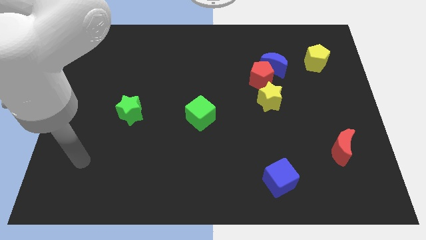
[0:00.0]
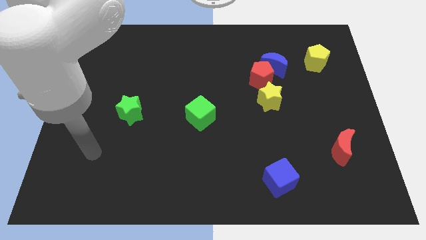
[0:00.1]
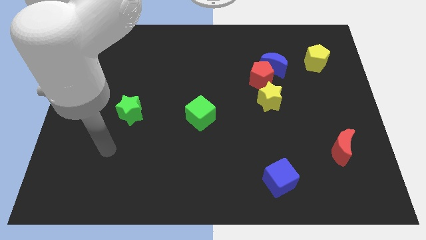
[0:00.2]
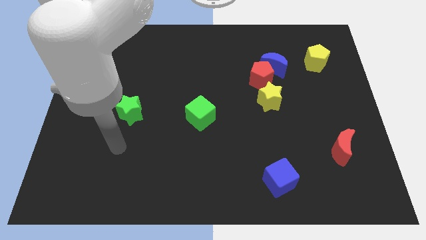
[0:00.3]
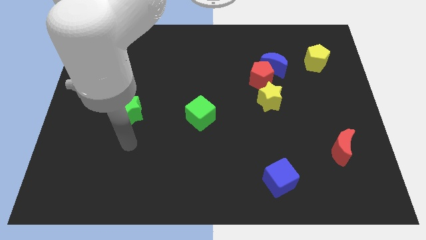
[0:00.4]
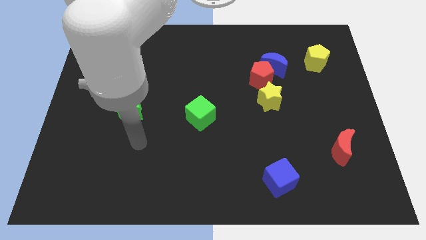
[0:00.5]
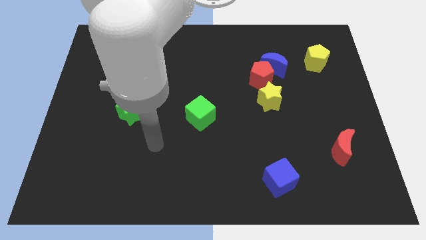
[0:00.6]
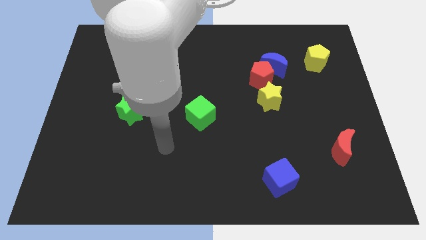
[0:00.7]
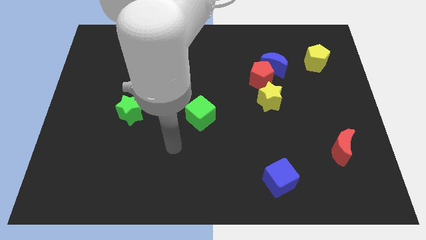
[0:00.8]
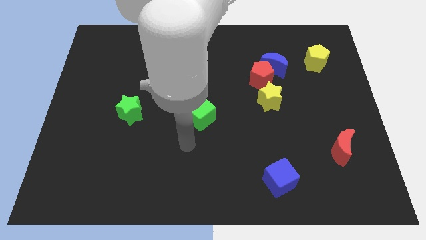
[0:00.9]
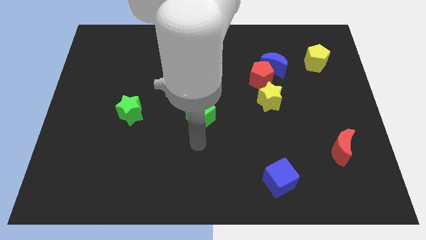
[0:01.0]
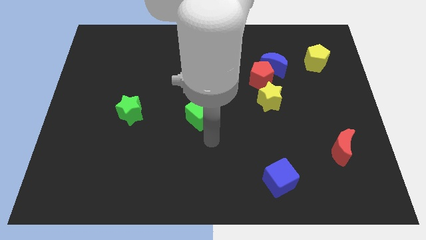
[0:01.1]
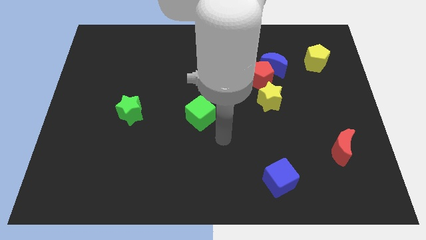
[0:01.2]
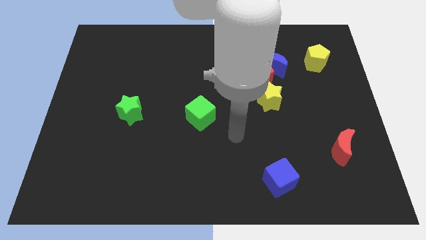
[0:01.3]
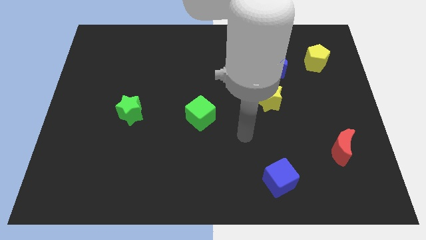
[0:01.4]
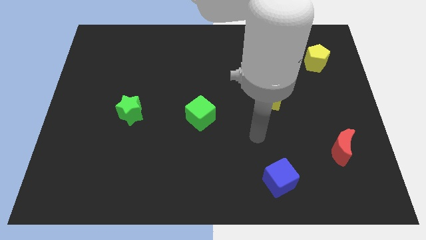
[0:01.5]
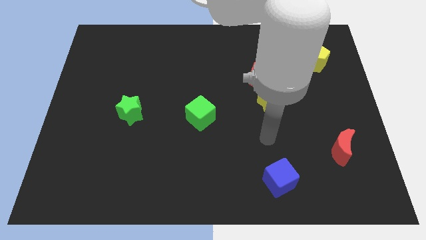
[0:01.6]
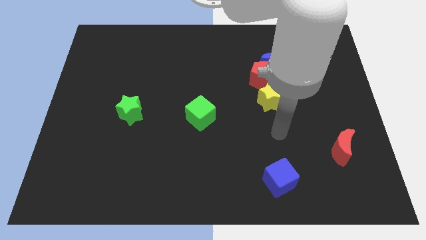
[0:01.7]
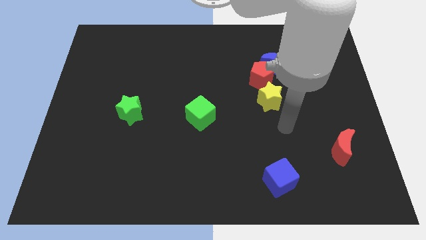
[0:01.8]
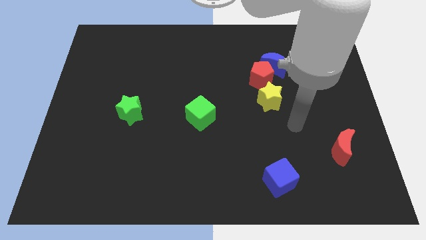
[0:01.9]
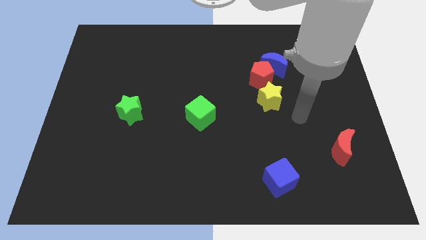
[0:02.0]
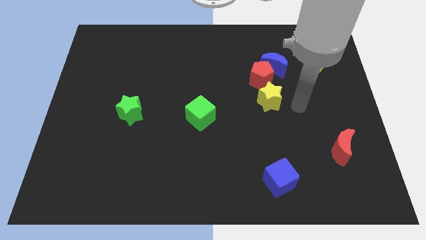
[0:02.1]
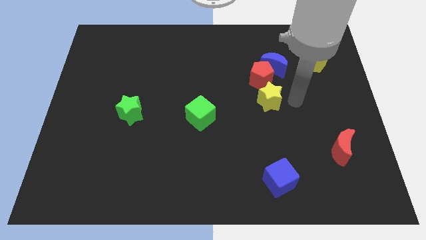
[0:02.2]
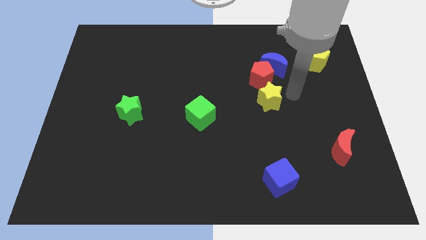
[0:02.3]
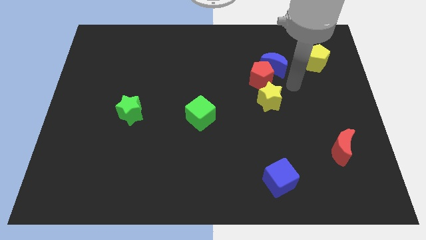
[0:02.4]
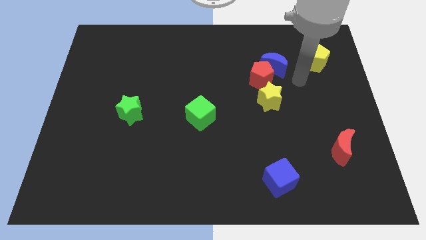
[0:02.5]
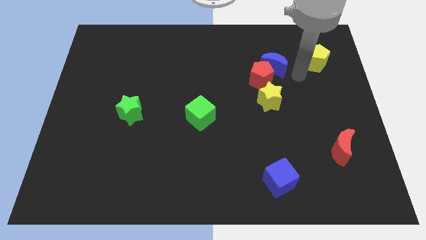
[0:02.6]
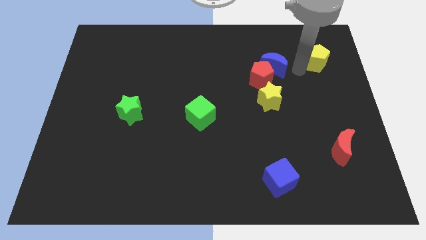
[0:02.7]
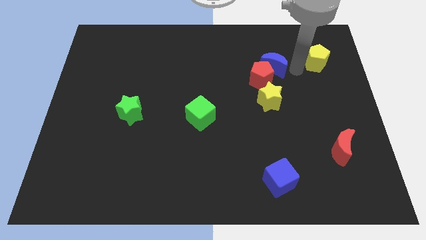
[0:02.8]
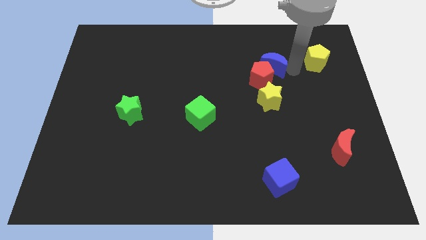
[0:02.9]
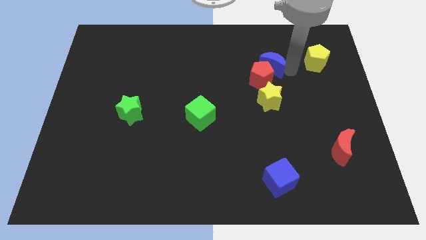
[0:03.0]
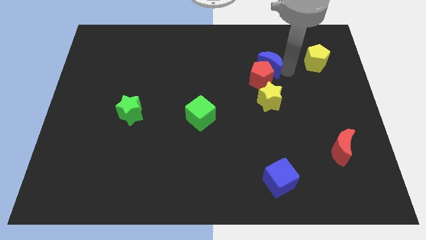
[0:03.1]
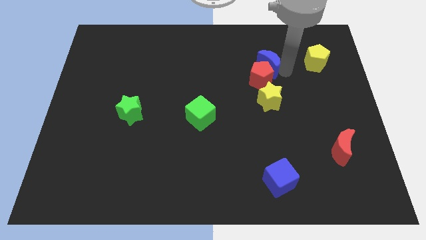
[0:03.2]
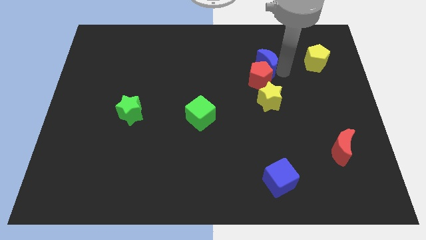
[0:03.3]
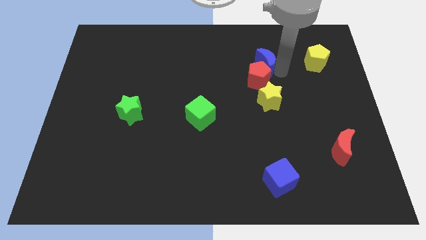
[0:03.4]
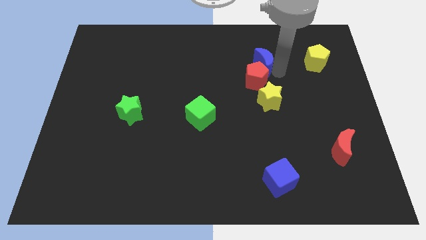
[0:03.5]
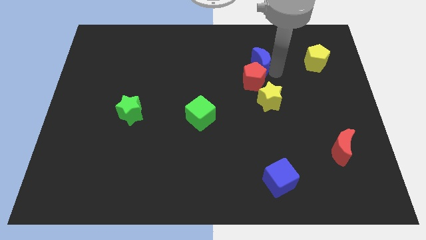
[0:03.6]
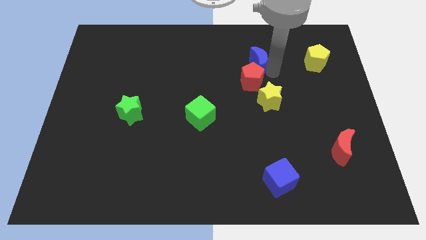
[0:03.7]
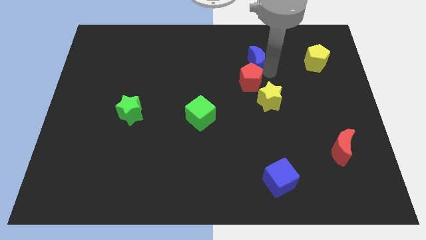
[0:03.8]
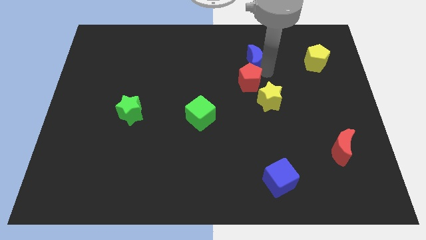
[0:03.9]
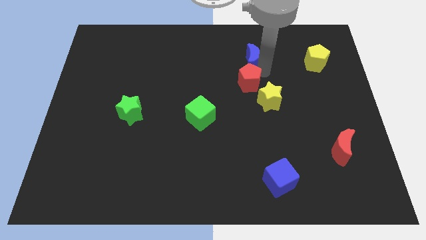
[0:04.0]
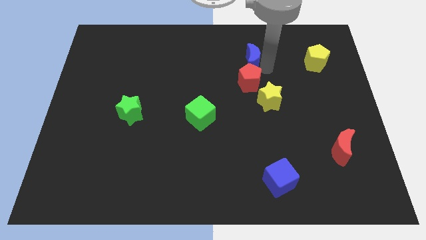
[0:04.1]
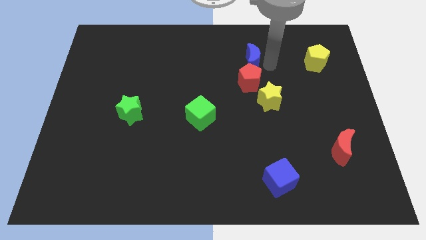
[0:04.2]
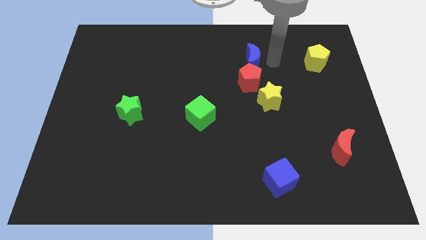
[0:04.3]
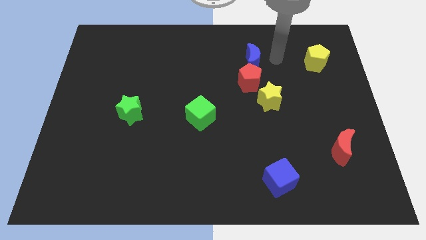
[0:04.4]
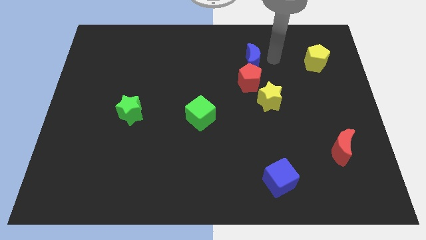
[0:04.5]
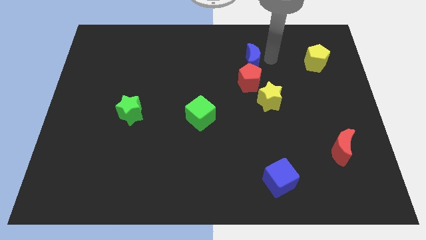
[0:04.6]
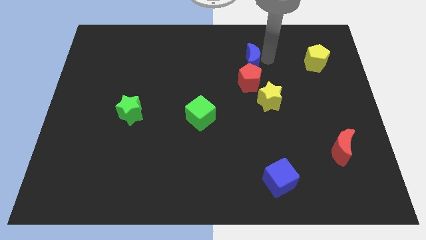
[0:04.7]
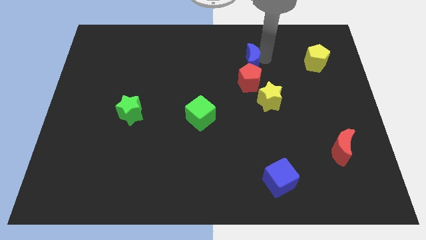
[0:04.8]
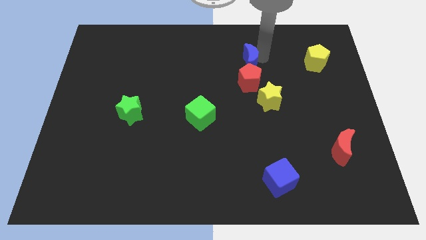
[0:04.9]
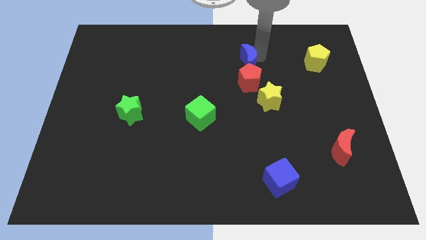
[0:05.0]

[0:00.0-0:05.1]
push the blue moon diagonally up and to the left of the red pentagon

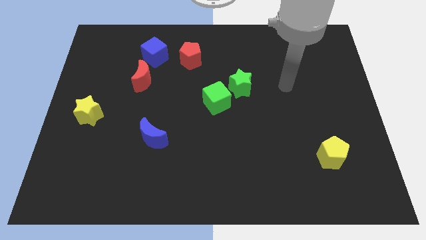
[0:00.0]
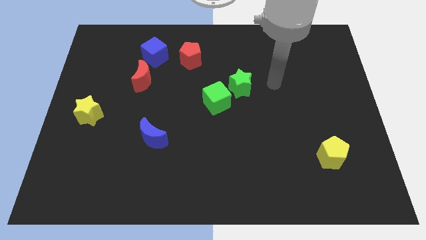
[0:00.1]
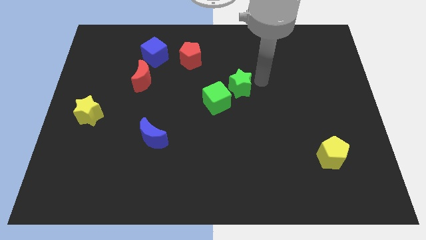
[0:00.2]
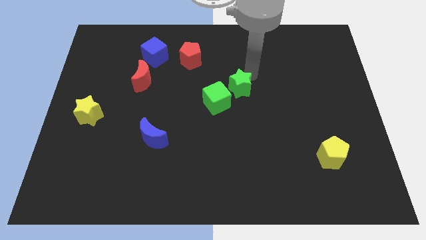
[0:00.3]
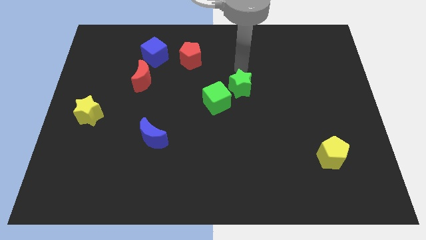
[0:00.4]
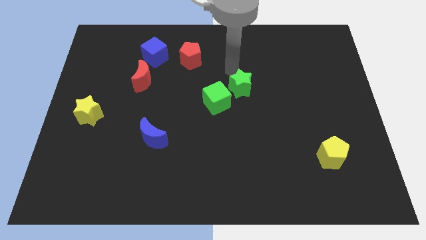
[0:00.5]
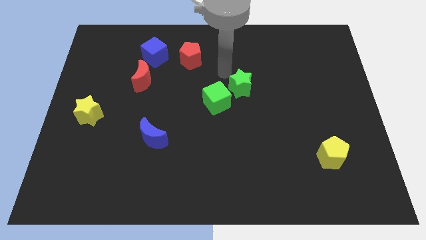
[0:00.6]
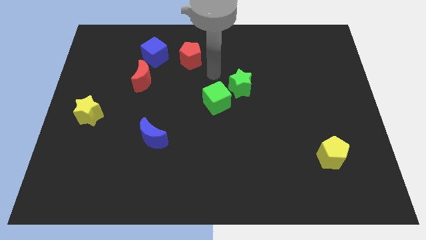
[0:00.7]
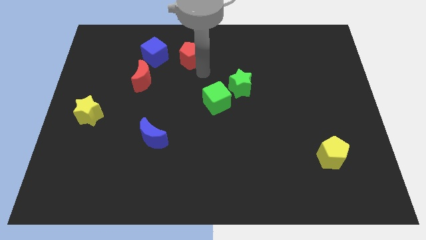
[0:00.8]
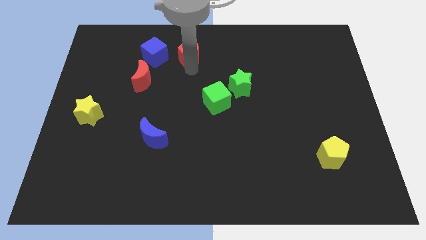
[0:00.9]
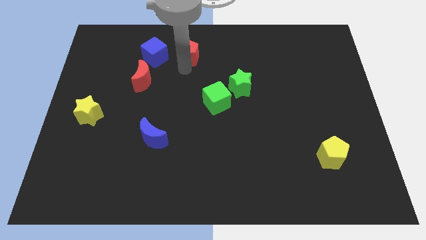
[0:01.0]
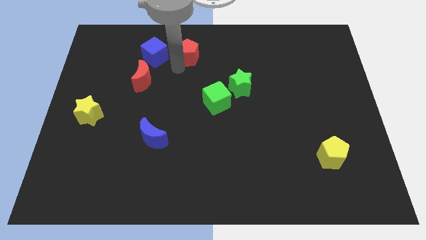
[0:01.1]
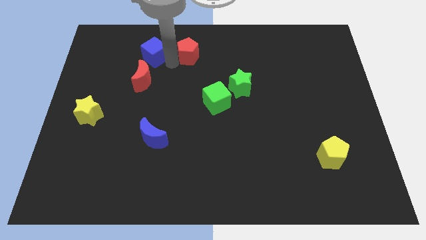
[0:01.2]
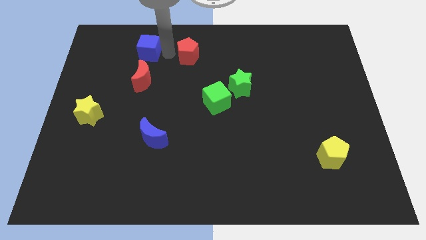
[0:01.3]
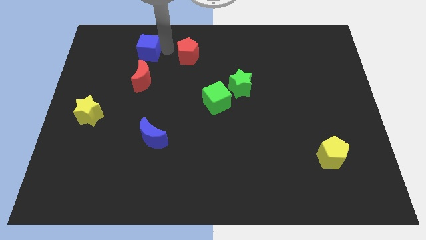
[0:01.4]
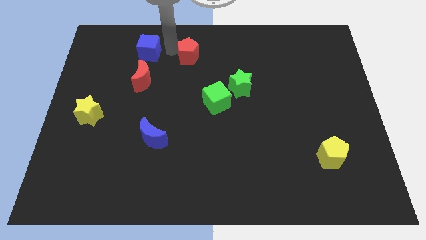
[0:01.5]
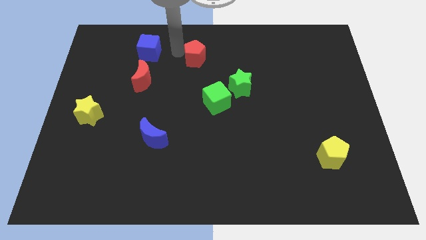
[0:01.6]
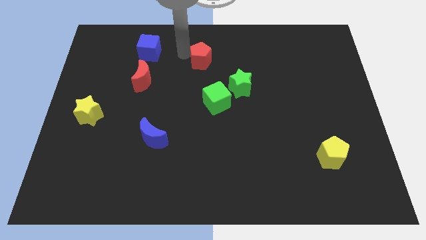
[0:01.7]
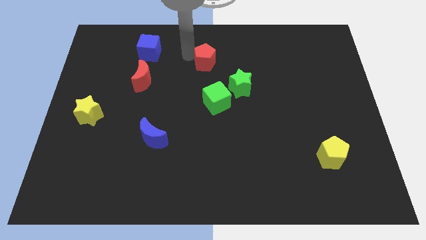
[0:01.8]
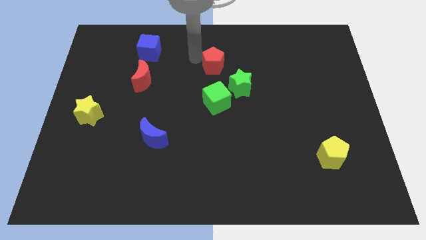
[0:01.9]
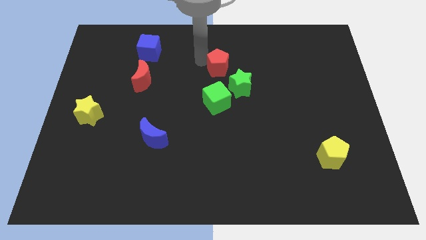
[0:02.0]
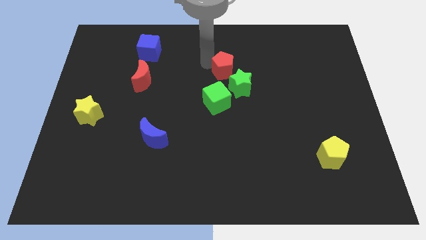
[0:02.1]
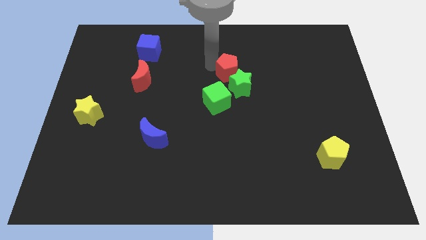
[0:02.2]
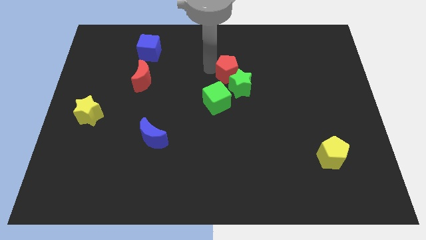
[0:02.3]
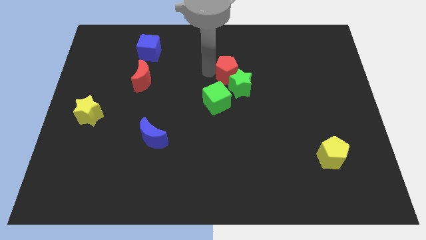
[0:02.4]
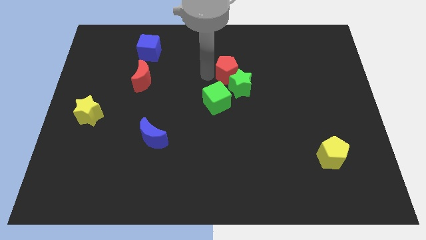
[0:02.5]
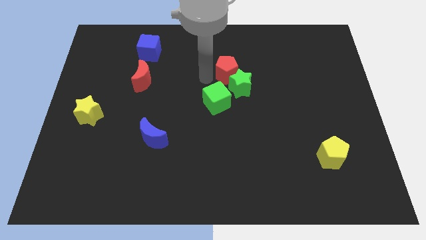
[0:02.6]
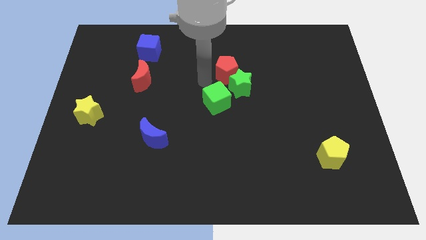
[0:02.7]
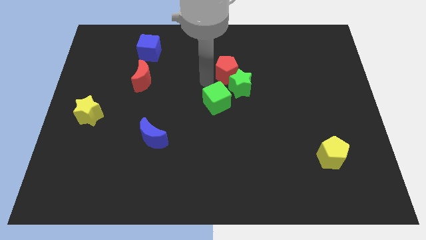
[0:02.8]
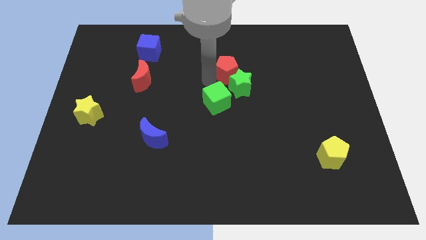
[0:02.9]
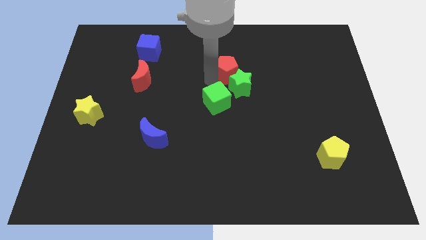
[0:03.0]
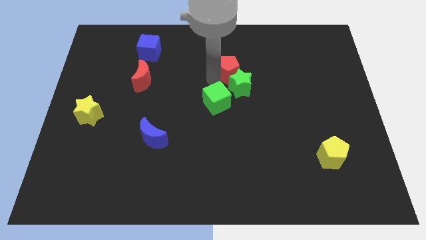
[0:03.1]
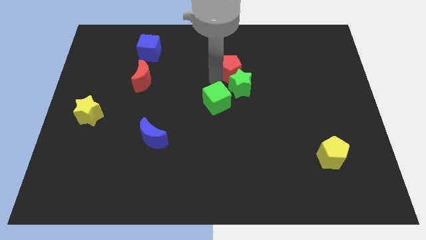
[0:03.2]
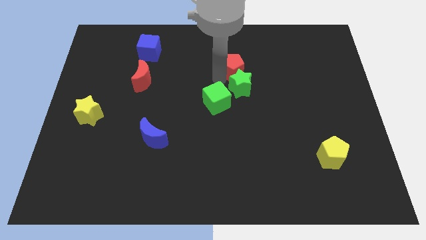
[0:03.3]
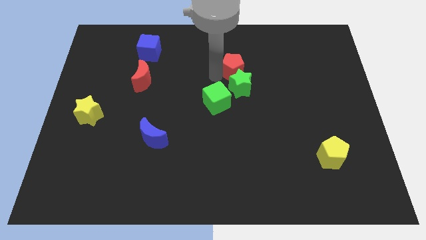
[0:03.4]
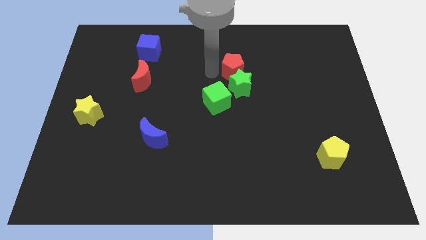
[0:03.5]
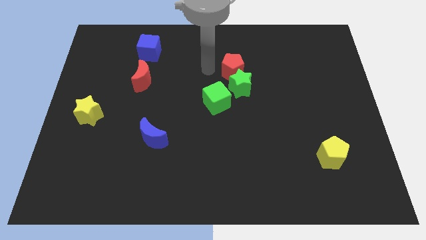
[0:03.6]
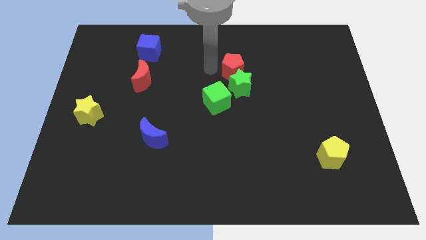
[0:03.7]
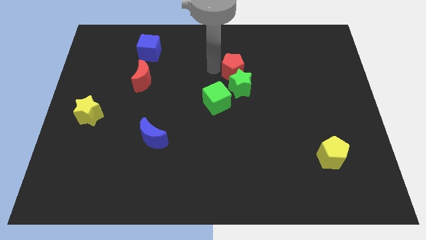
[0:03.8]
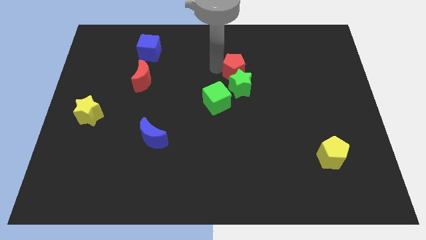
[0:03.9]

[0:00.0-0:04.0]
slide the red pentagon to the top right side of the green star
